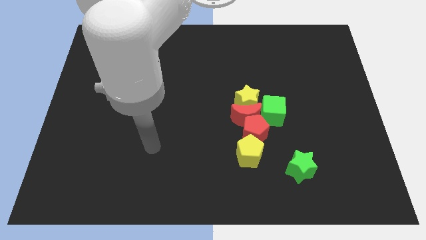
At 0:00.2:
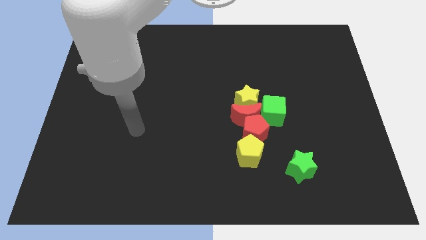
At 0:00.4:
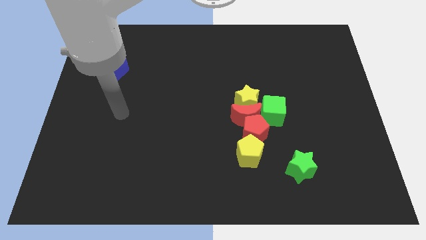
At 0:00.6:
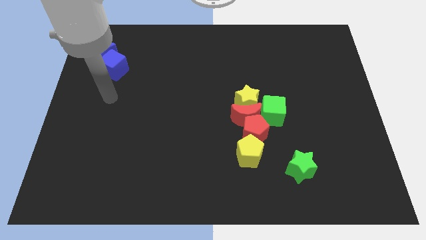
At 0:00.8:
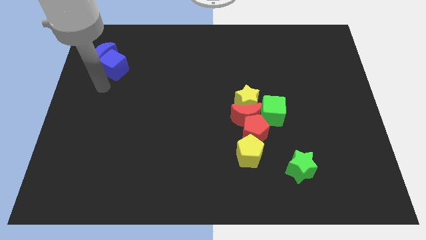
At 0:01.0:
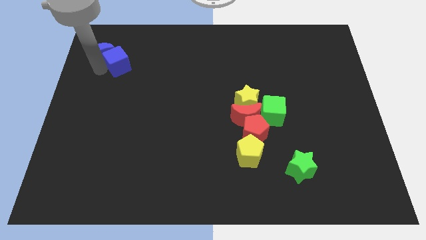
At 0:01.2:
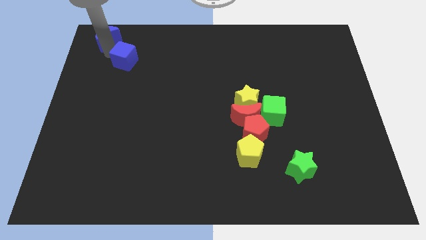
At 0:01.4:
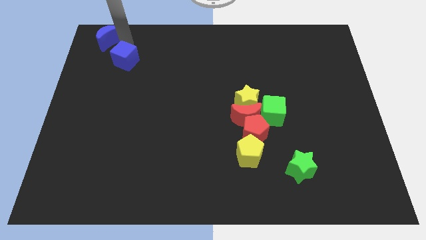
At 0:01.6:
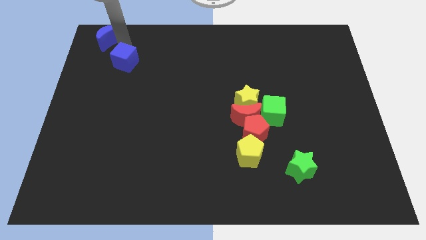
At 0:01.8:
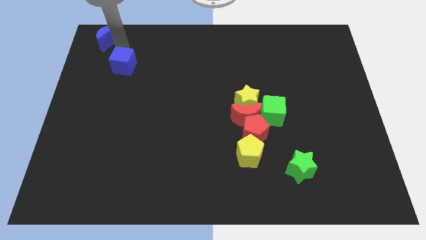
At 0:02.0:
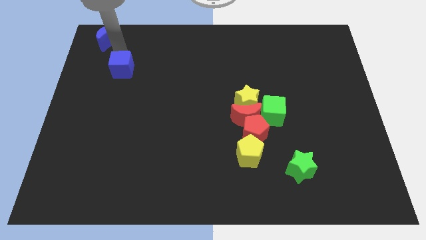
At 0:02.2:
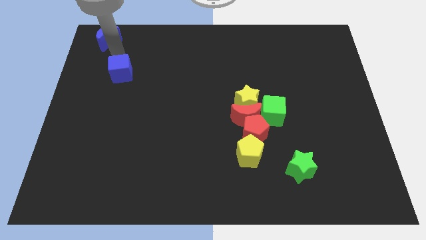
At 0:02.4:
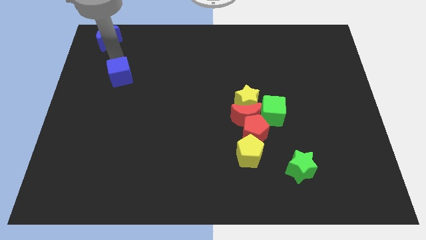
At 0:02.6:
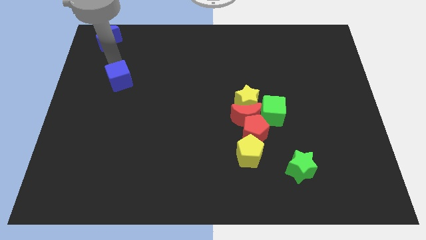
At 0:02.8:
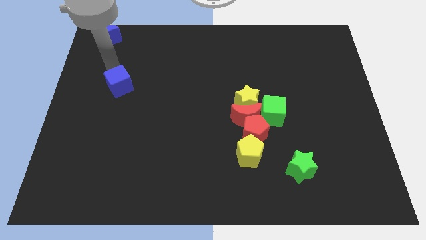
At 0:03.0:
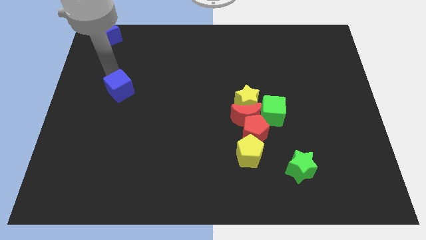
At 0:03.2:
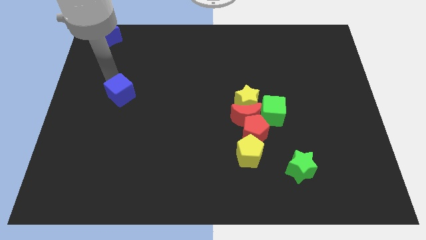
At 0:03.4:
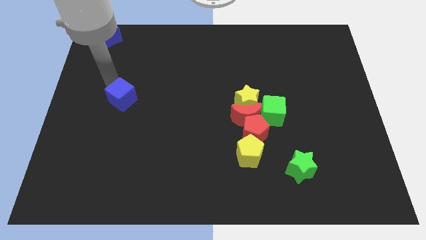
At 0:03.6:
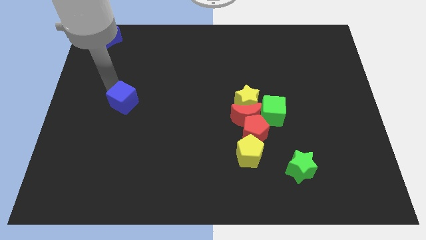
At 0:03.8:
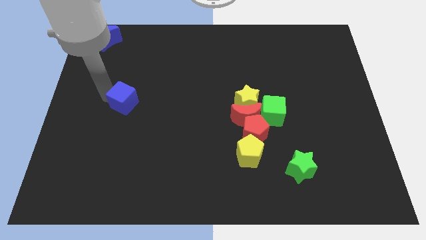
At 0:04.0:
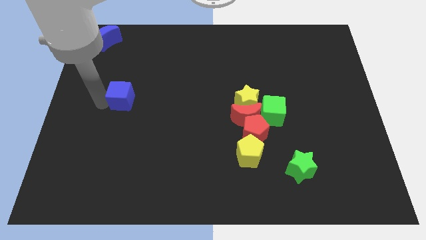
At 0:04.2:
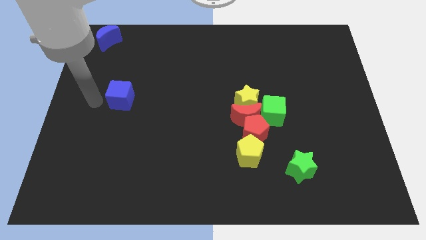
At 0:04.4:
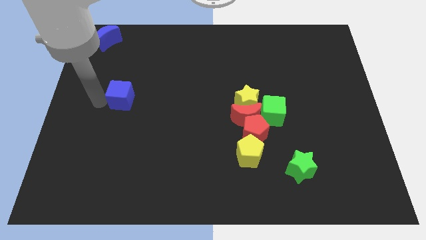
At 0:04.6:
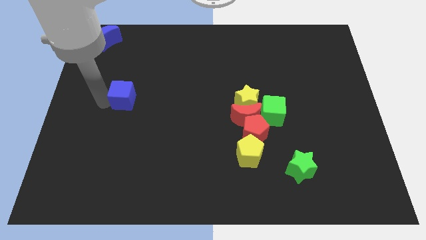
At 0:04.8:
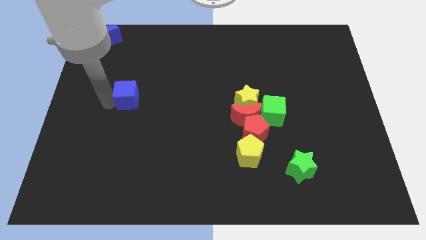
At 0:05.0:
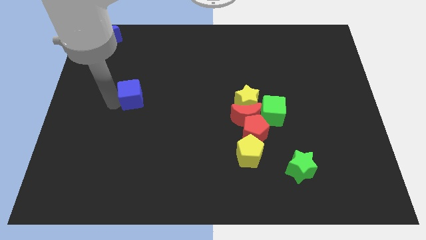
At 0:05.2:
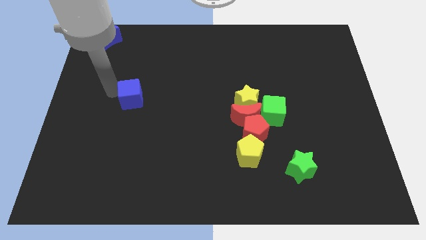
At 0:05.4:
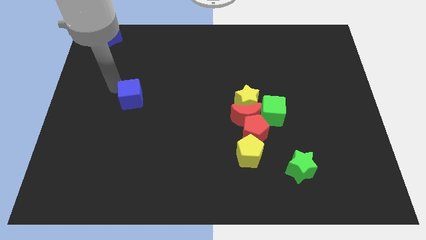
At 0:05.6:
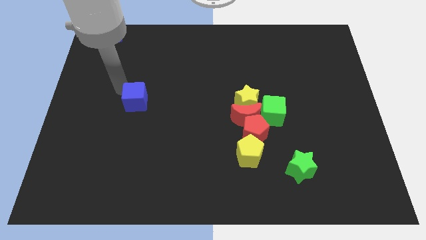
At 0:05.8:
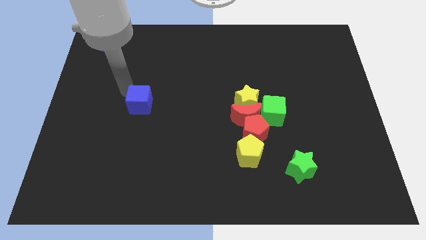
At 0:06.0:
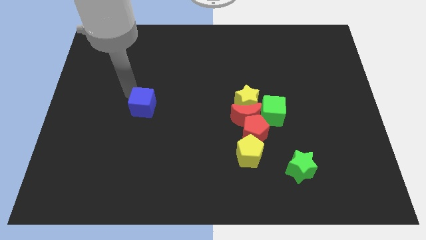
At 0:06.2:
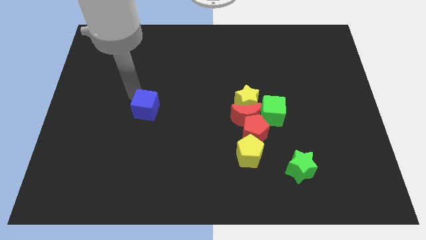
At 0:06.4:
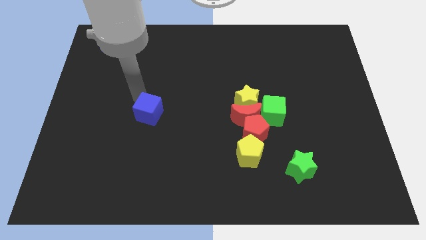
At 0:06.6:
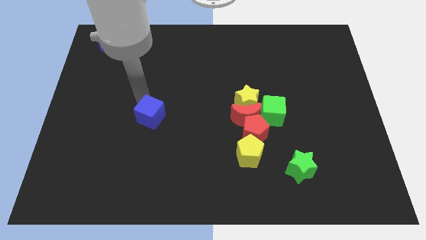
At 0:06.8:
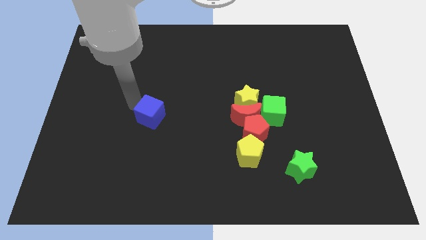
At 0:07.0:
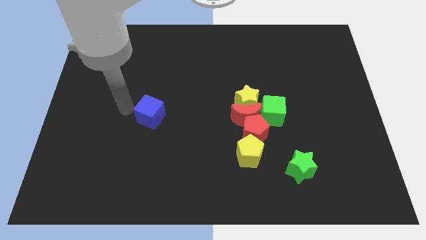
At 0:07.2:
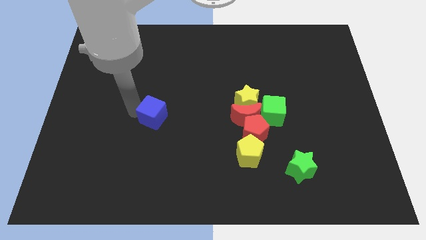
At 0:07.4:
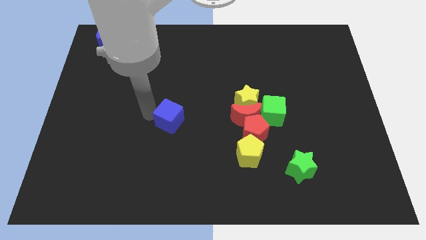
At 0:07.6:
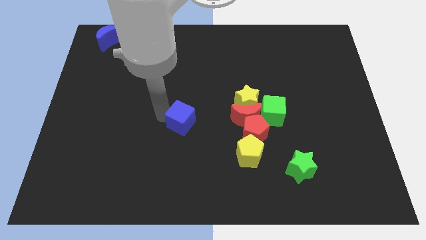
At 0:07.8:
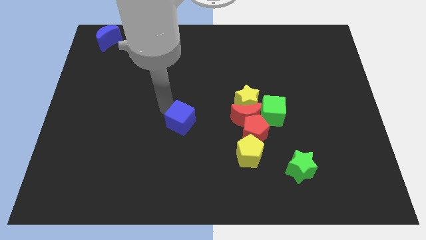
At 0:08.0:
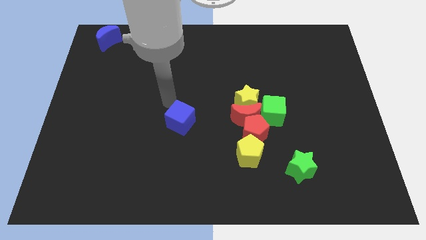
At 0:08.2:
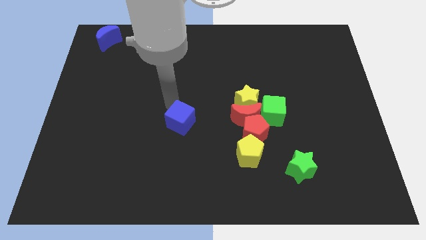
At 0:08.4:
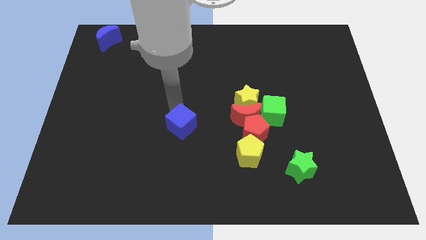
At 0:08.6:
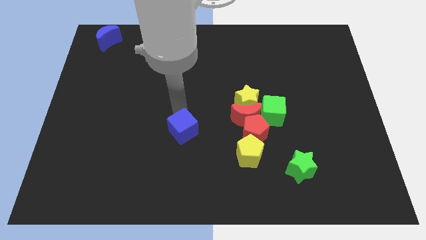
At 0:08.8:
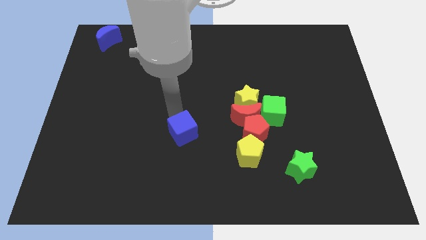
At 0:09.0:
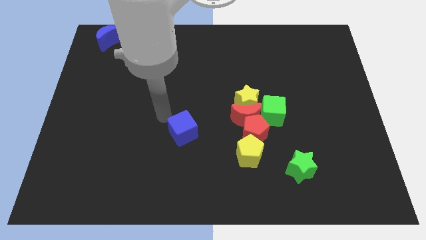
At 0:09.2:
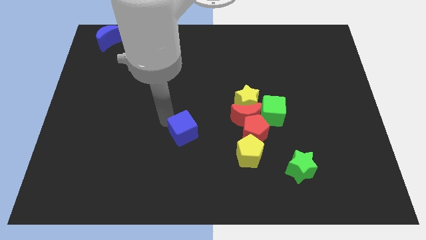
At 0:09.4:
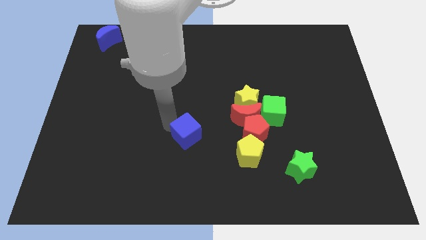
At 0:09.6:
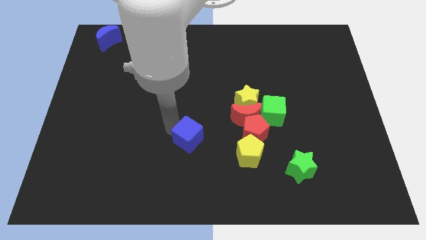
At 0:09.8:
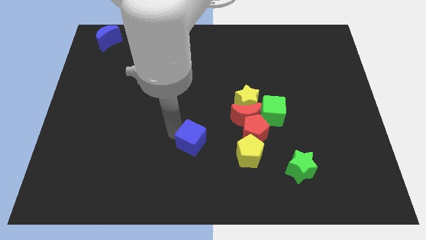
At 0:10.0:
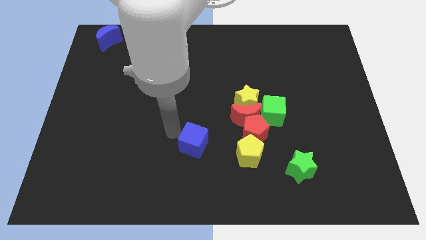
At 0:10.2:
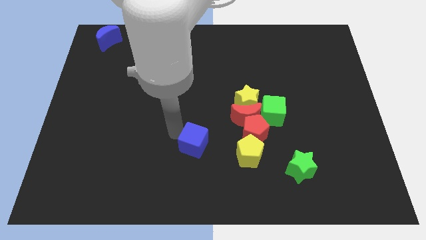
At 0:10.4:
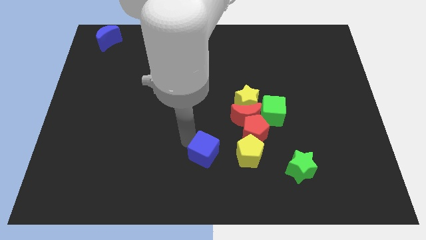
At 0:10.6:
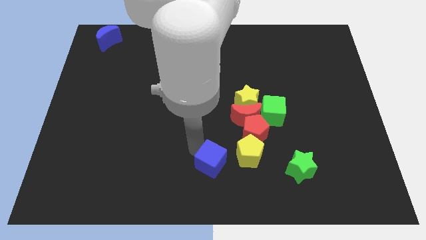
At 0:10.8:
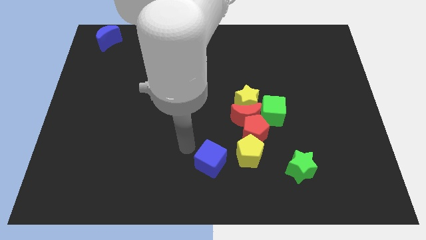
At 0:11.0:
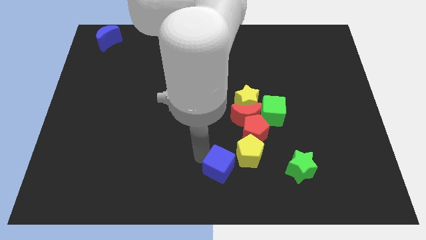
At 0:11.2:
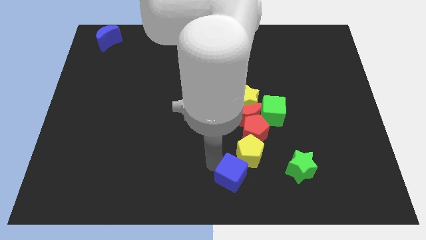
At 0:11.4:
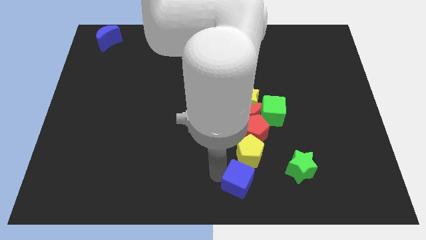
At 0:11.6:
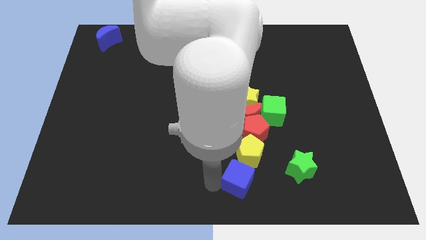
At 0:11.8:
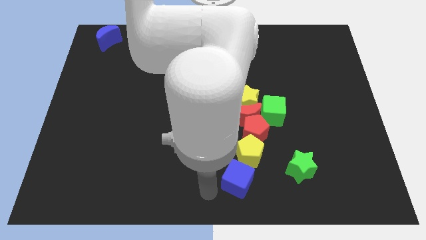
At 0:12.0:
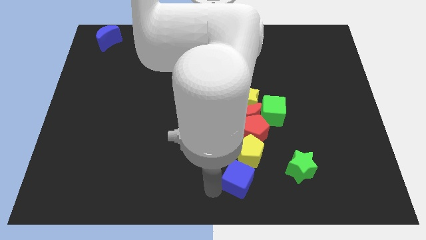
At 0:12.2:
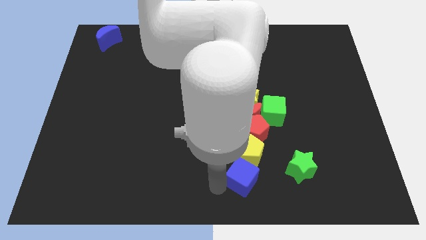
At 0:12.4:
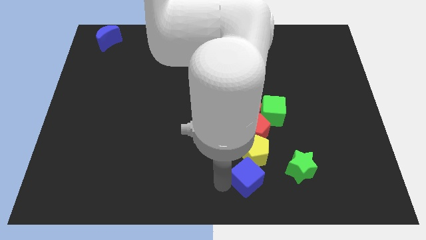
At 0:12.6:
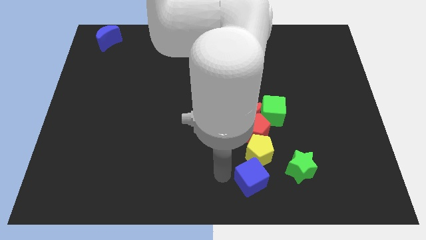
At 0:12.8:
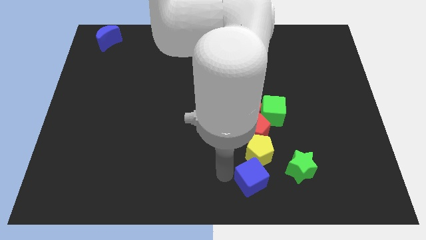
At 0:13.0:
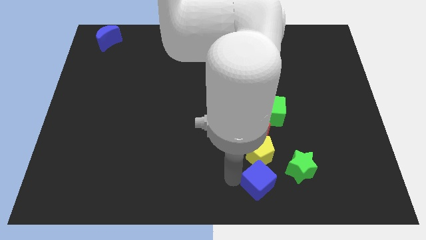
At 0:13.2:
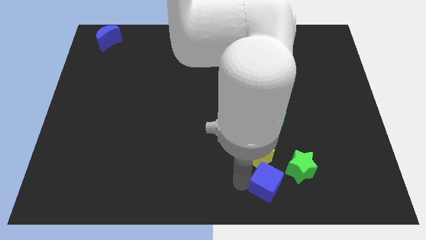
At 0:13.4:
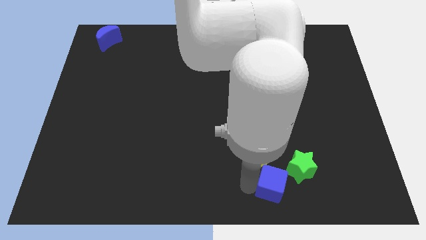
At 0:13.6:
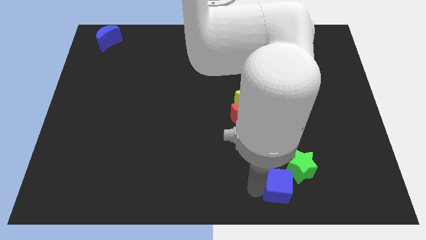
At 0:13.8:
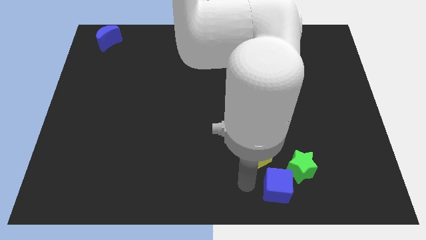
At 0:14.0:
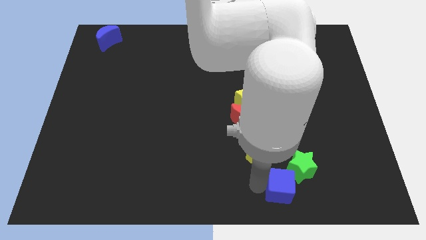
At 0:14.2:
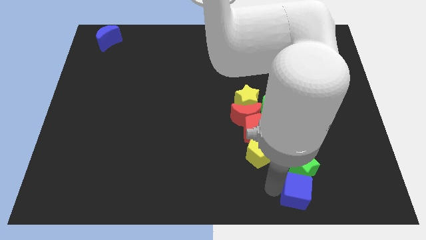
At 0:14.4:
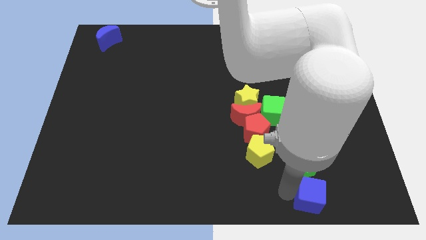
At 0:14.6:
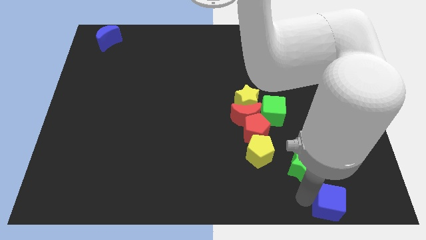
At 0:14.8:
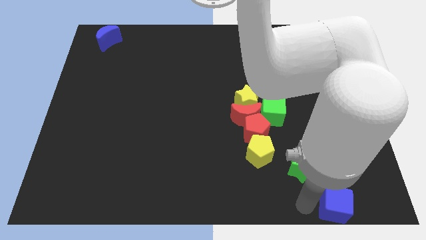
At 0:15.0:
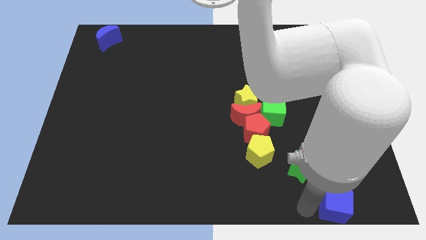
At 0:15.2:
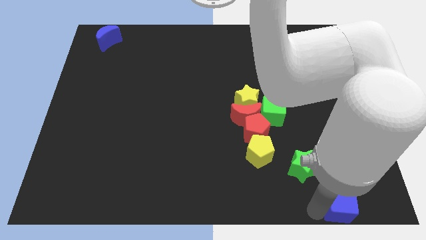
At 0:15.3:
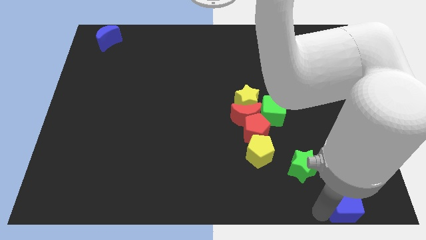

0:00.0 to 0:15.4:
move the blue cube to the bottom right of the board
